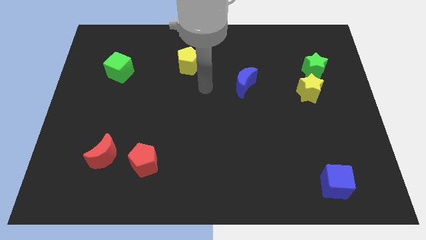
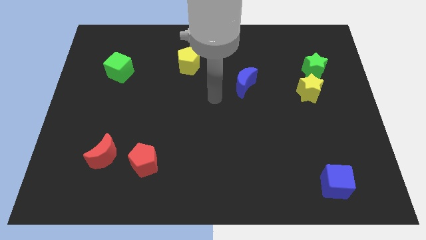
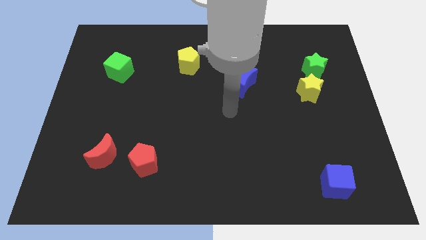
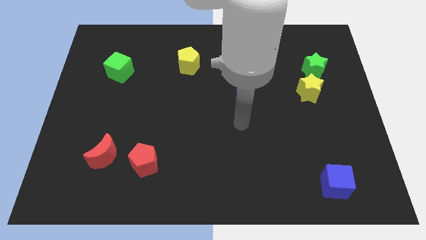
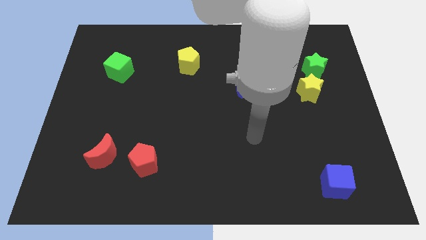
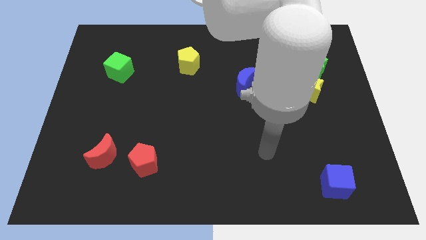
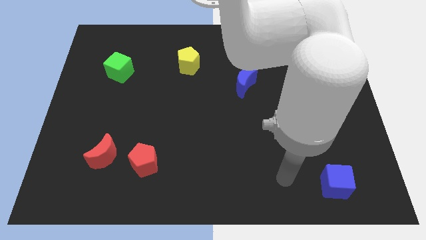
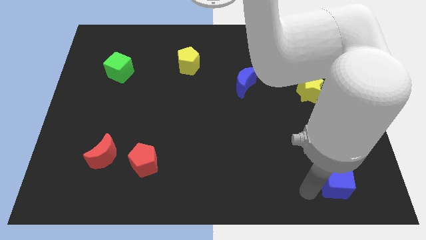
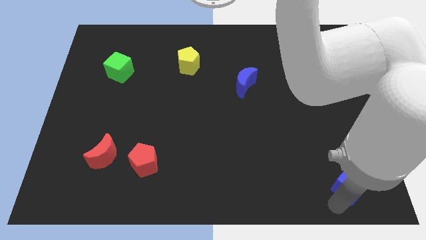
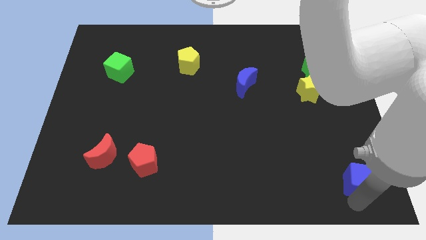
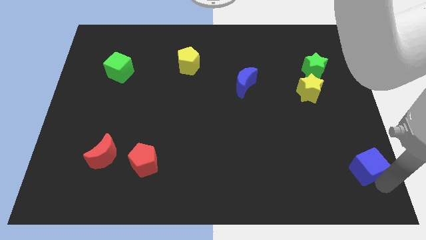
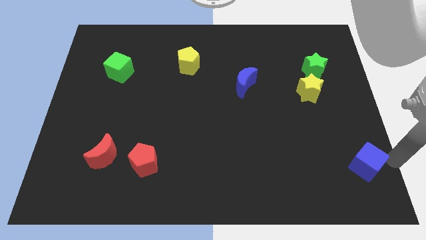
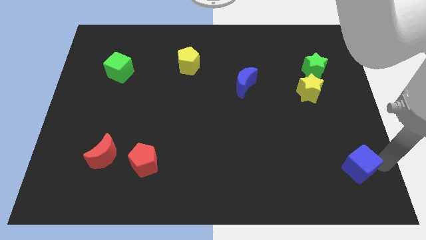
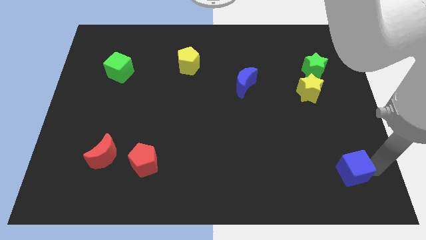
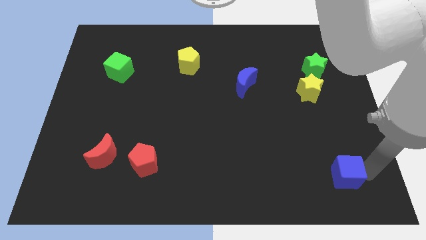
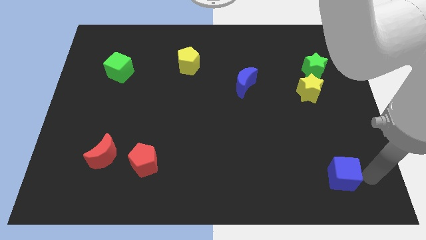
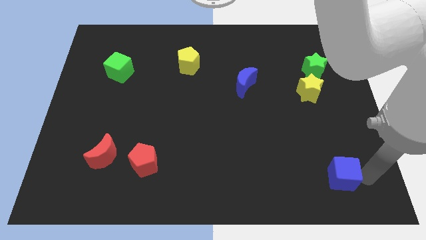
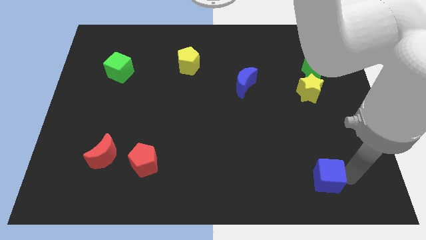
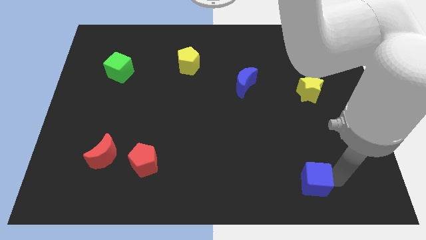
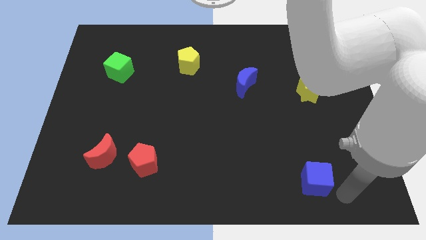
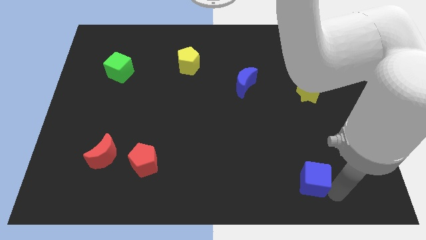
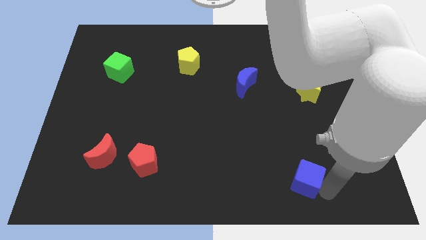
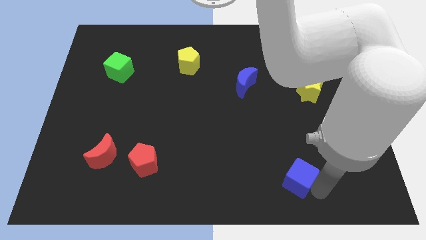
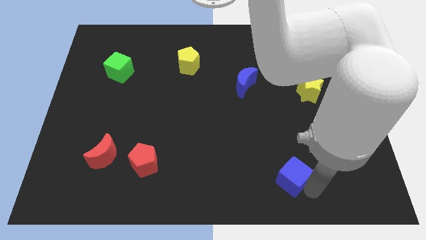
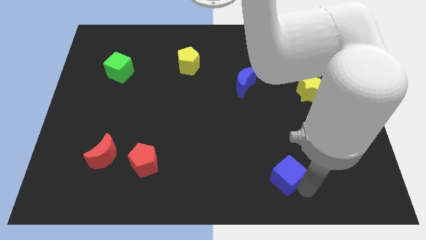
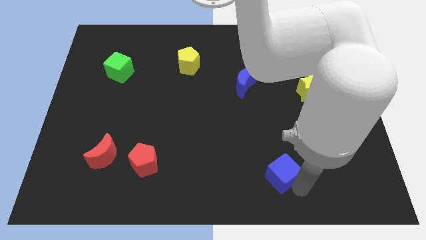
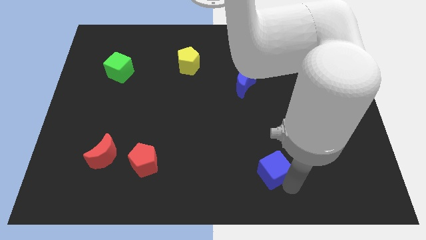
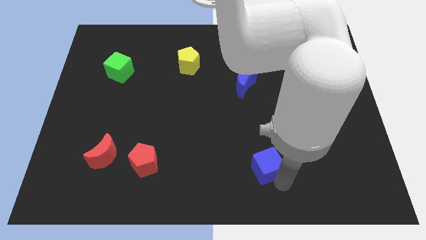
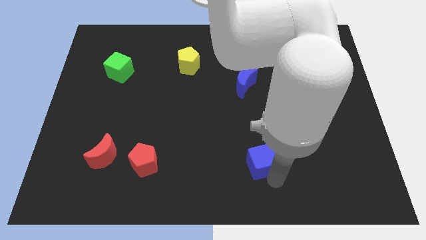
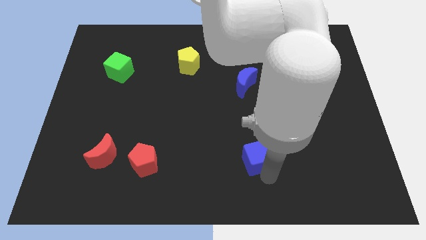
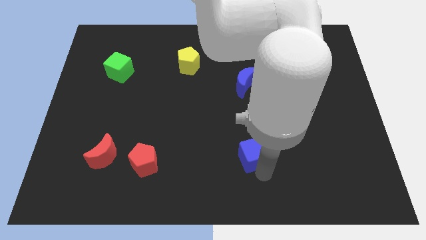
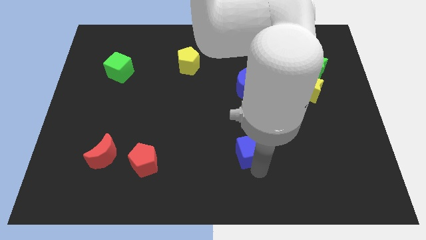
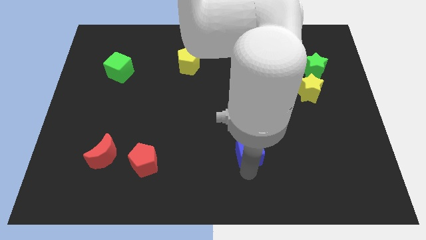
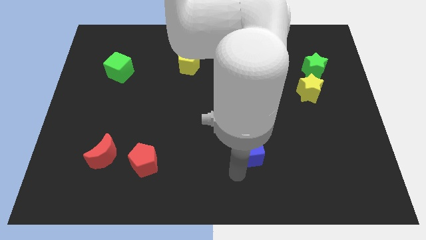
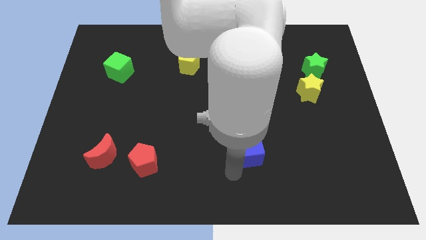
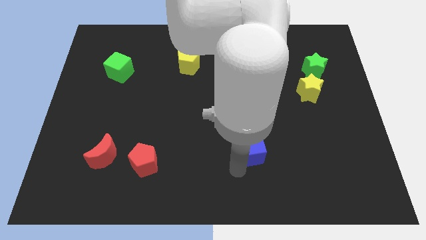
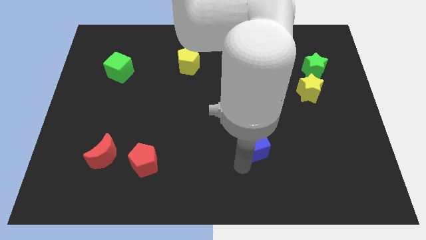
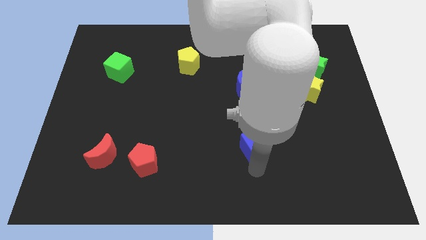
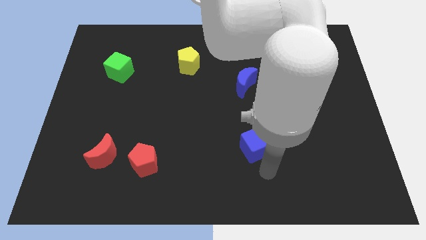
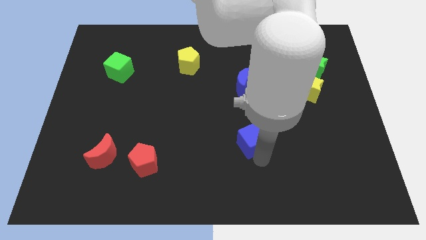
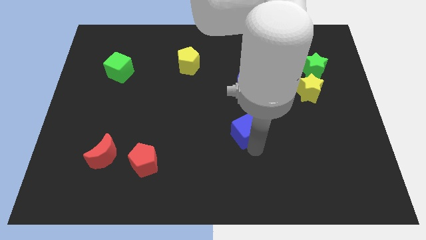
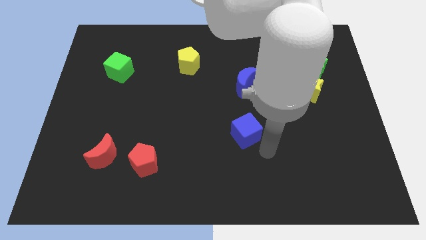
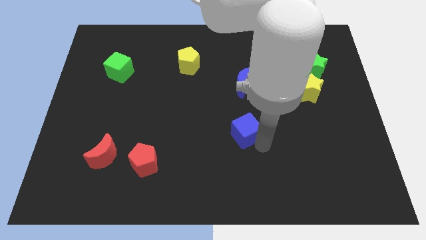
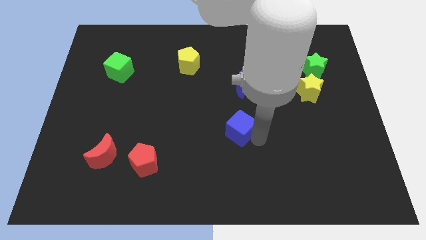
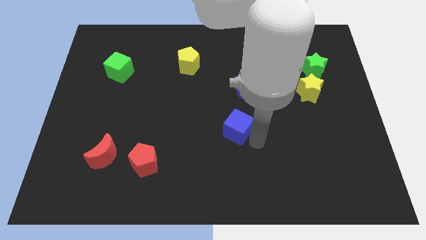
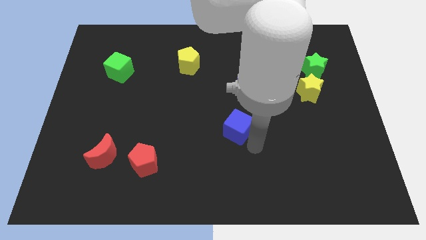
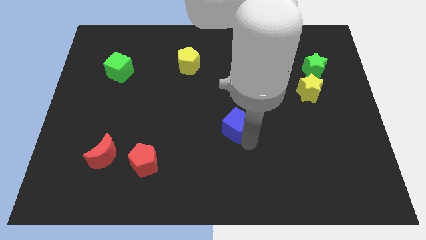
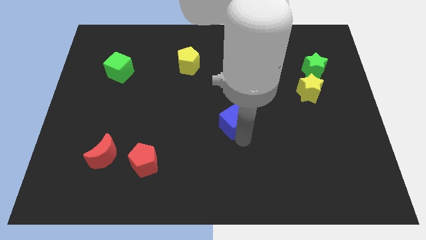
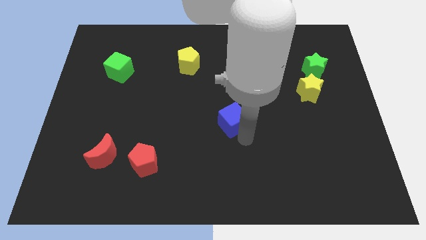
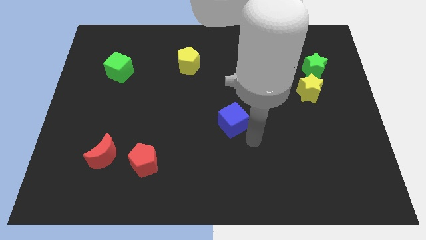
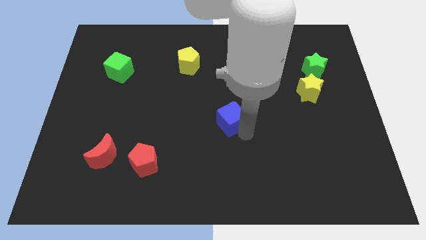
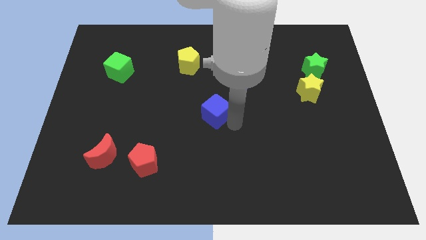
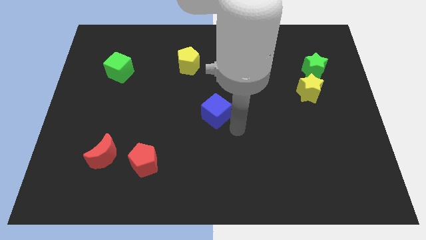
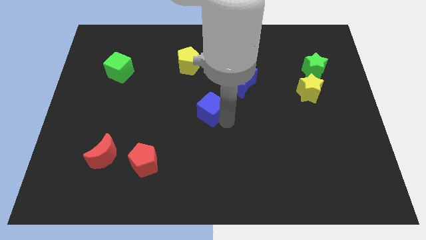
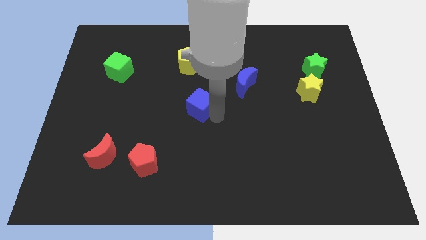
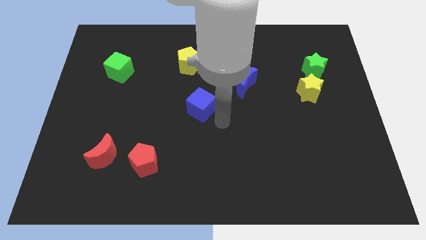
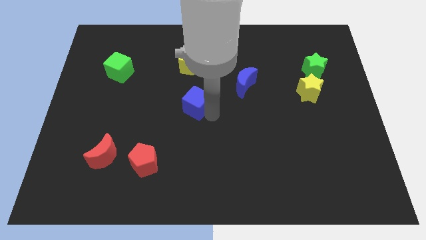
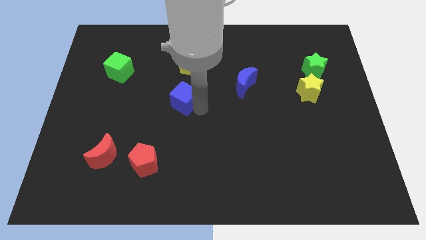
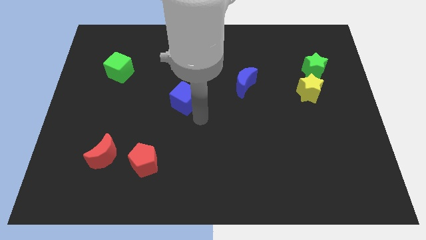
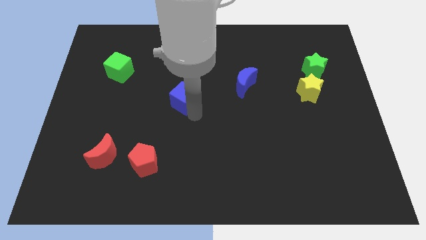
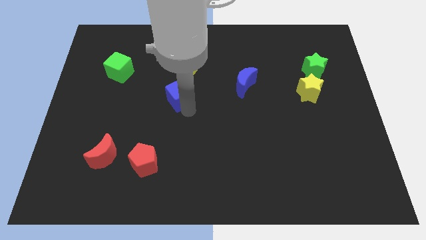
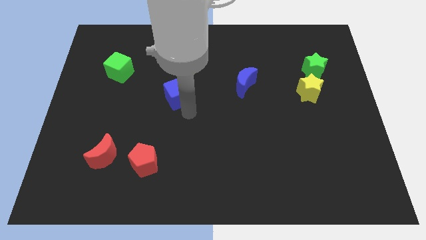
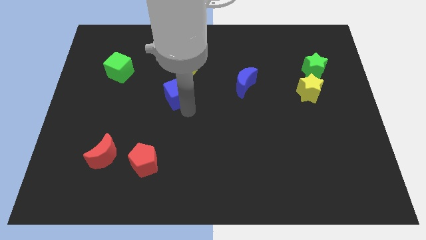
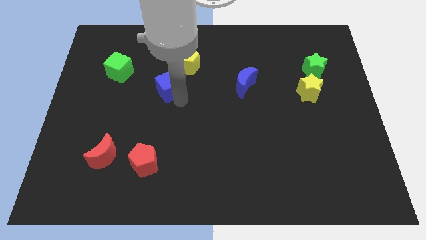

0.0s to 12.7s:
push the blue cube to the bottom left side of the yellow pentagon
